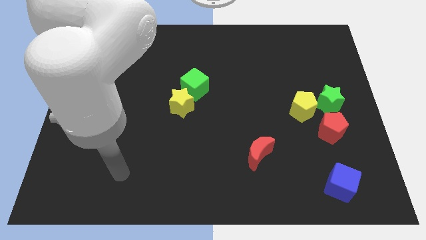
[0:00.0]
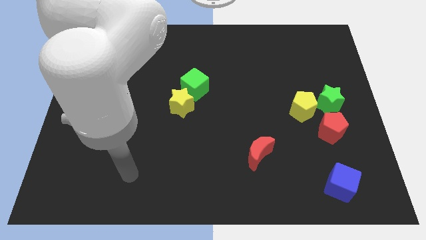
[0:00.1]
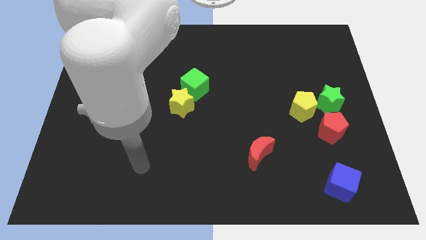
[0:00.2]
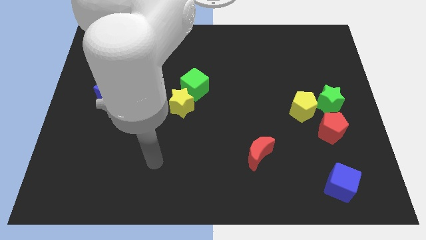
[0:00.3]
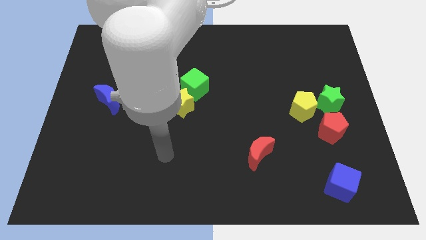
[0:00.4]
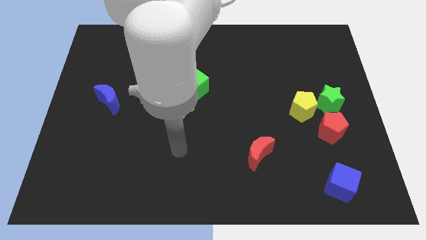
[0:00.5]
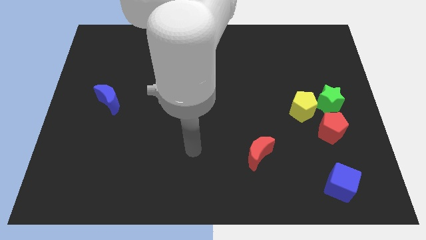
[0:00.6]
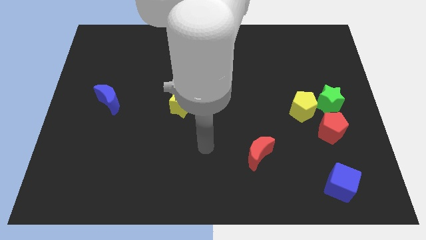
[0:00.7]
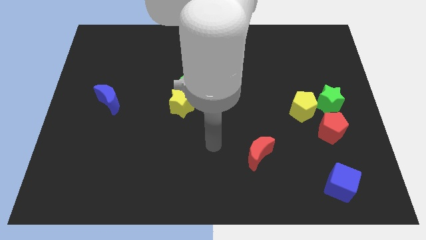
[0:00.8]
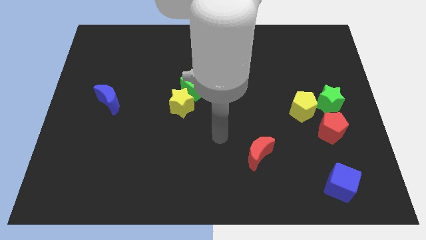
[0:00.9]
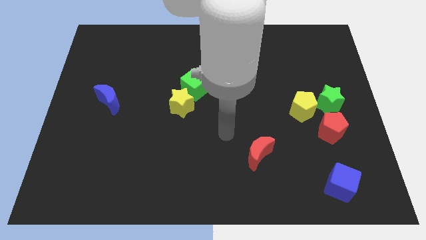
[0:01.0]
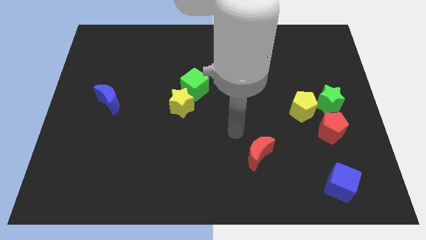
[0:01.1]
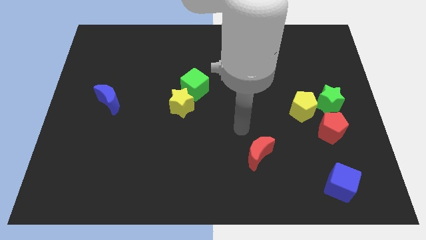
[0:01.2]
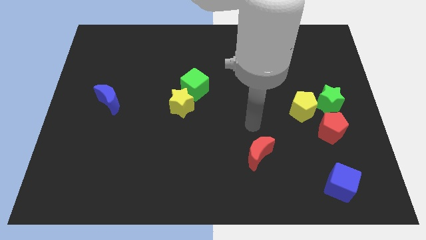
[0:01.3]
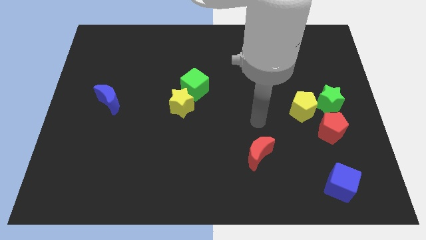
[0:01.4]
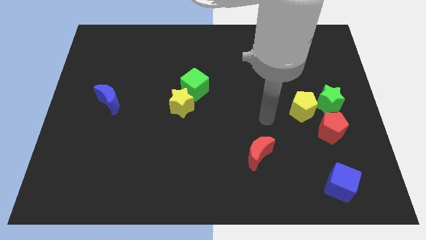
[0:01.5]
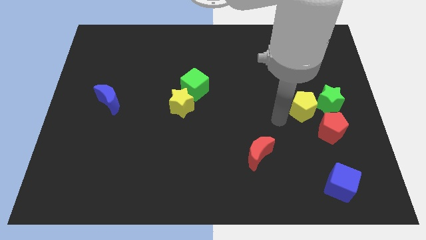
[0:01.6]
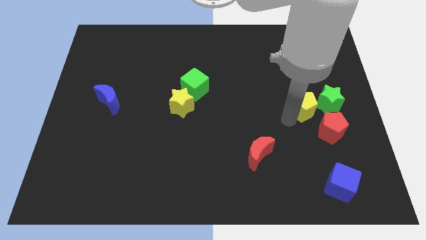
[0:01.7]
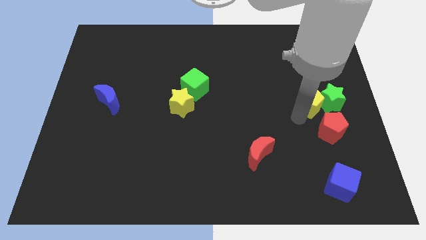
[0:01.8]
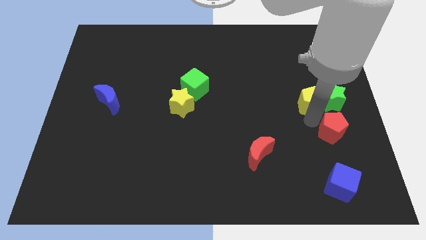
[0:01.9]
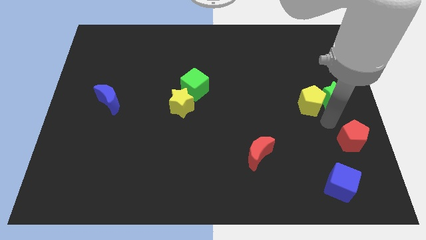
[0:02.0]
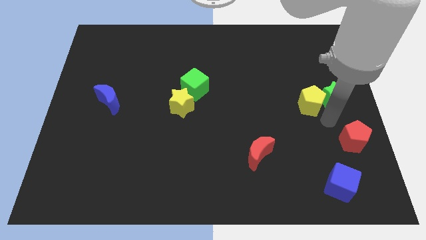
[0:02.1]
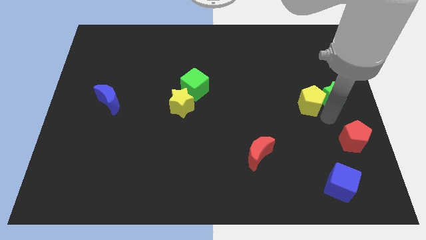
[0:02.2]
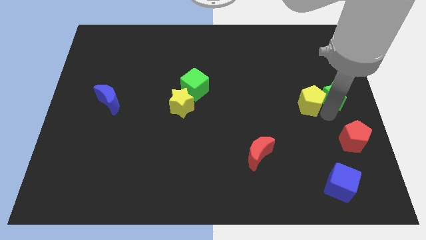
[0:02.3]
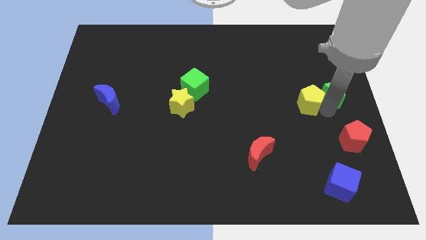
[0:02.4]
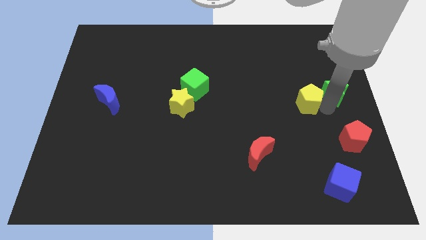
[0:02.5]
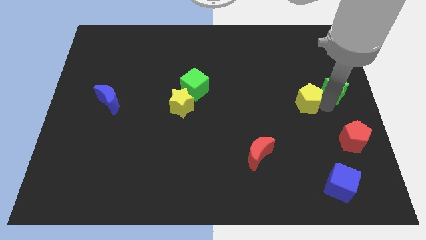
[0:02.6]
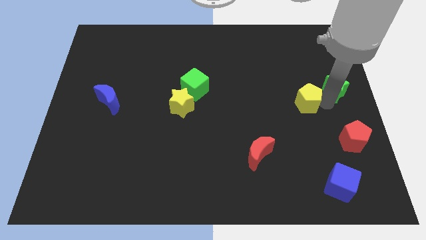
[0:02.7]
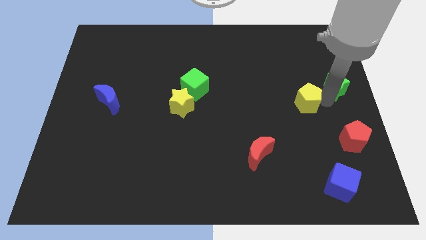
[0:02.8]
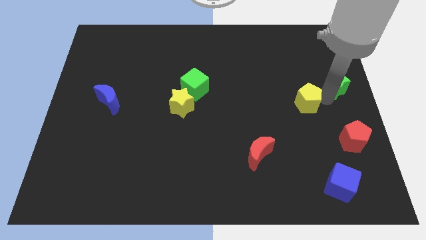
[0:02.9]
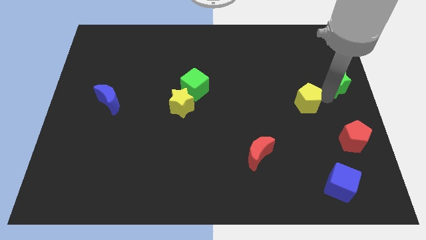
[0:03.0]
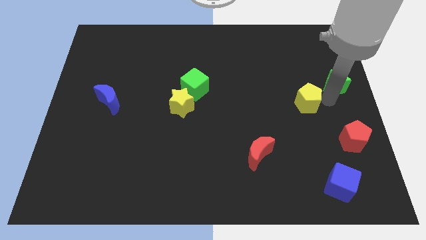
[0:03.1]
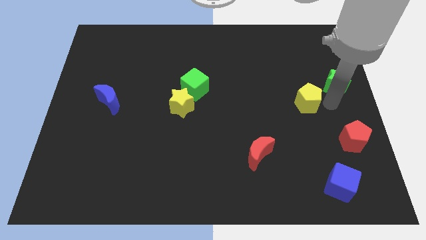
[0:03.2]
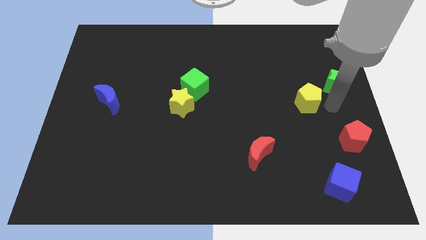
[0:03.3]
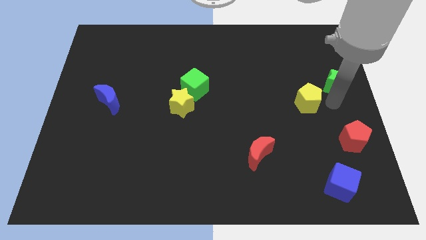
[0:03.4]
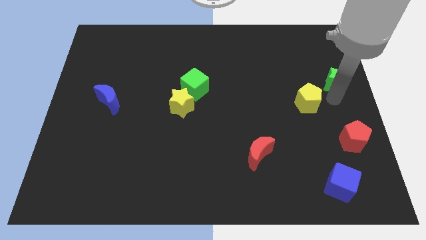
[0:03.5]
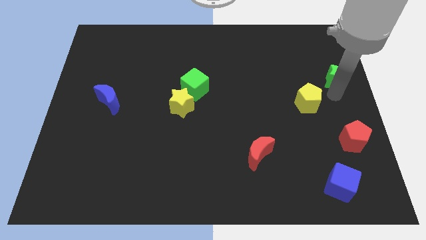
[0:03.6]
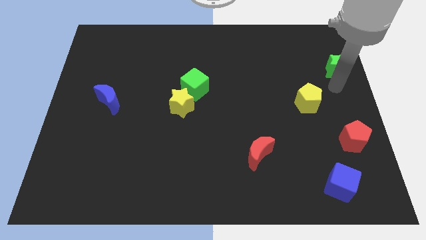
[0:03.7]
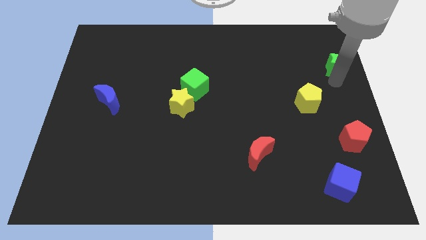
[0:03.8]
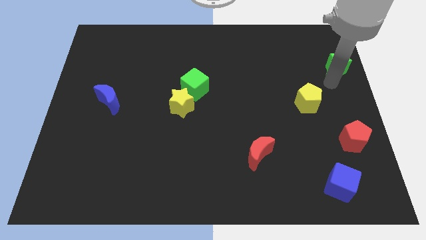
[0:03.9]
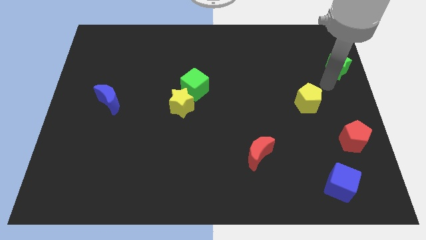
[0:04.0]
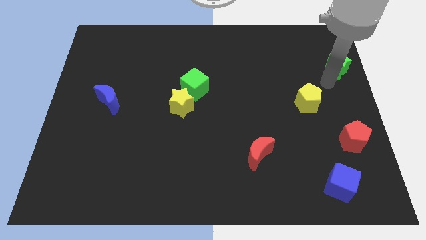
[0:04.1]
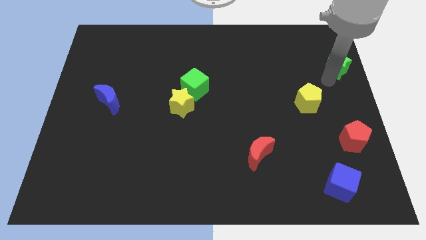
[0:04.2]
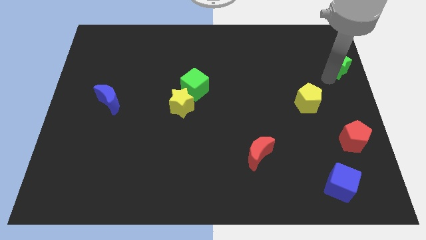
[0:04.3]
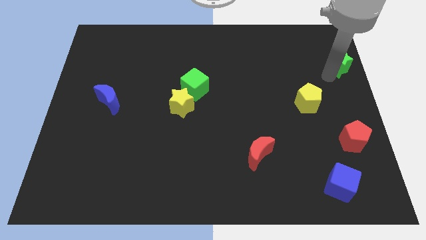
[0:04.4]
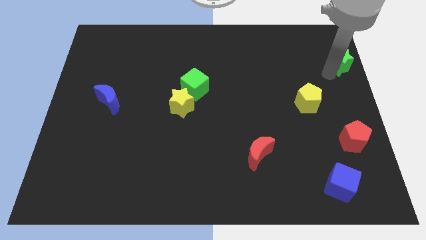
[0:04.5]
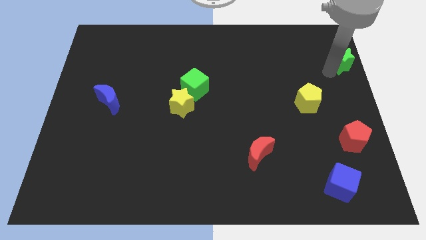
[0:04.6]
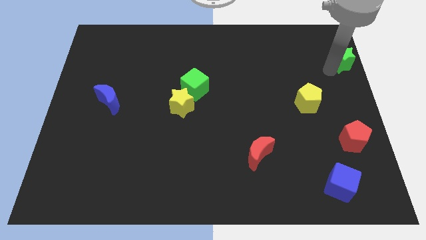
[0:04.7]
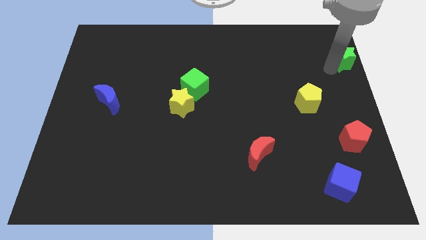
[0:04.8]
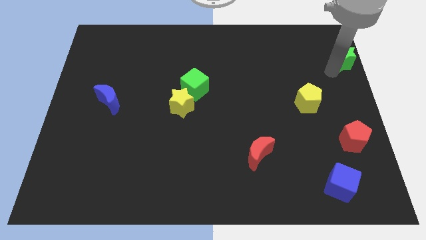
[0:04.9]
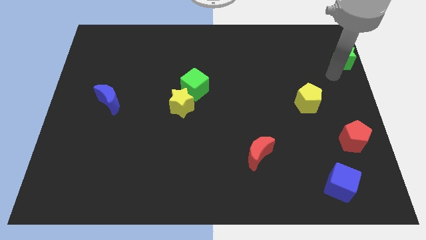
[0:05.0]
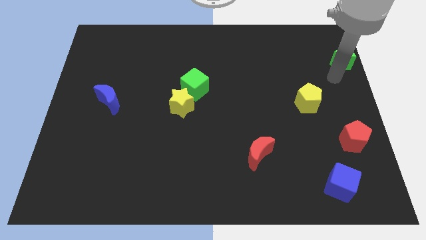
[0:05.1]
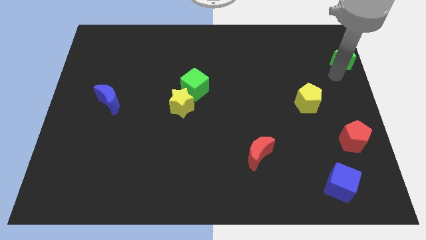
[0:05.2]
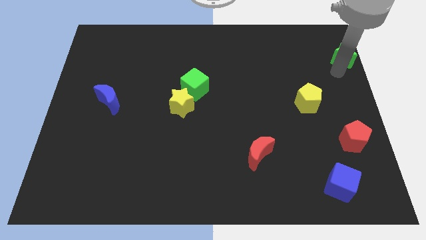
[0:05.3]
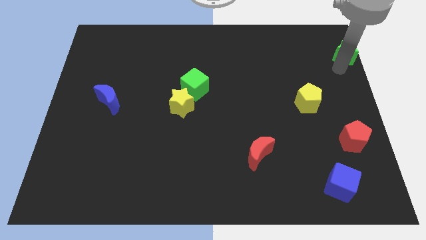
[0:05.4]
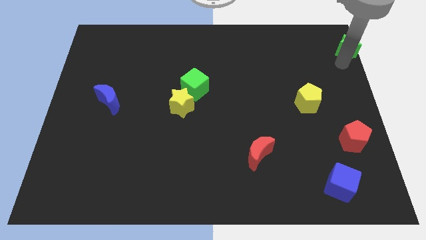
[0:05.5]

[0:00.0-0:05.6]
slide the green star to the top right of the board

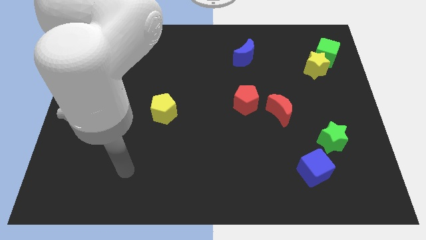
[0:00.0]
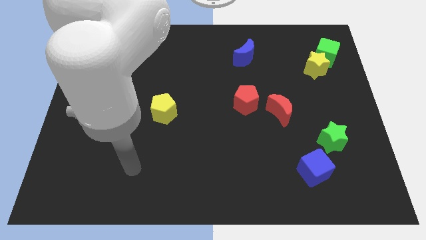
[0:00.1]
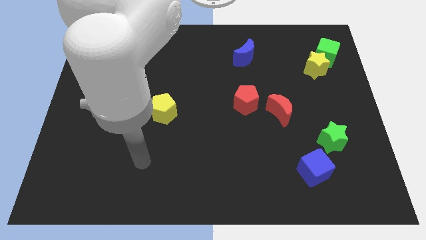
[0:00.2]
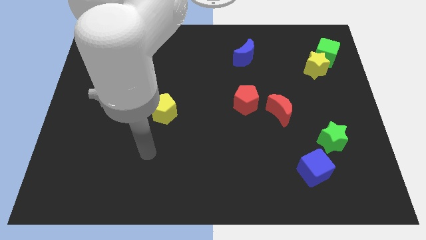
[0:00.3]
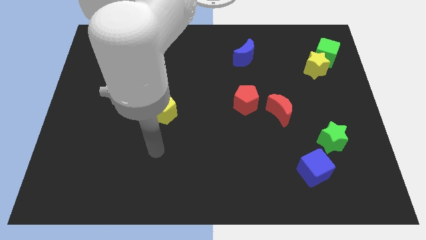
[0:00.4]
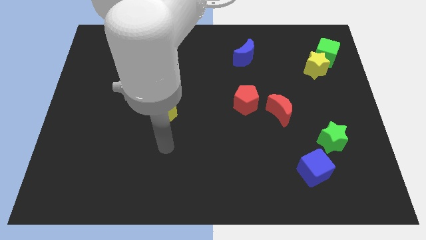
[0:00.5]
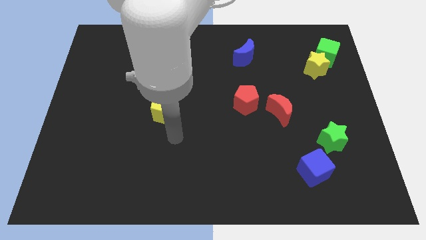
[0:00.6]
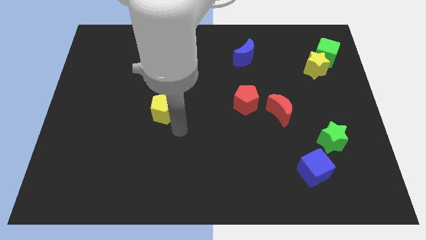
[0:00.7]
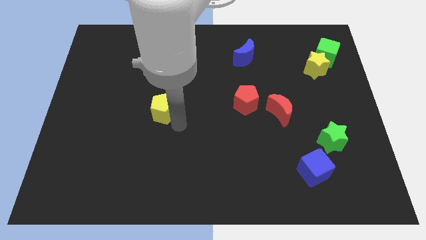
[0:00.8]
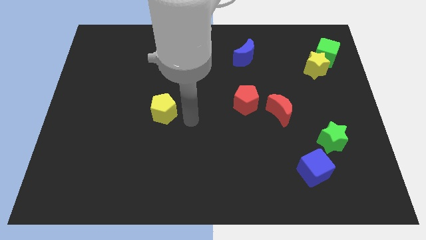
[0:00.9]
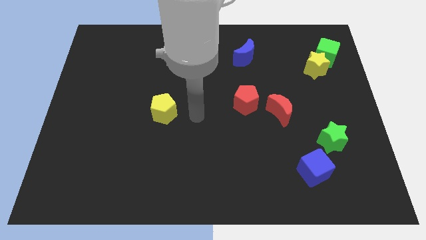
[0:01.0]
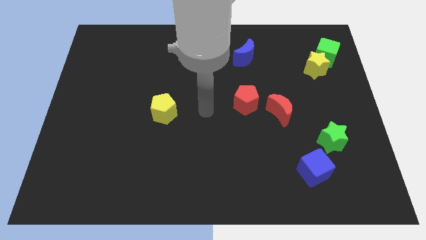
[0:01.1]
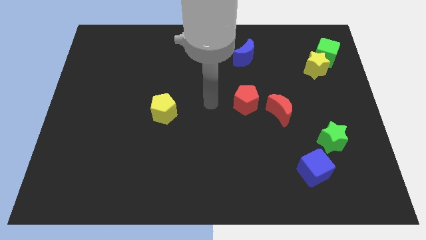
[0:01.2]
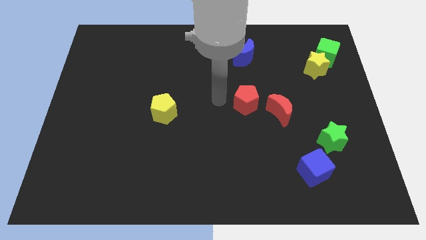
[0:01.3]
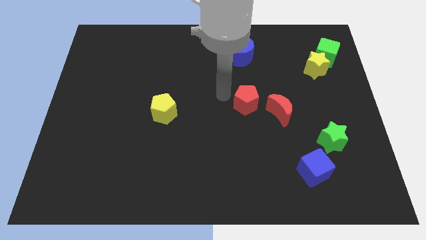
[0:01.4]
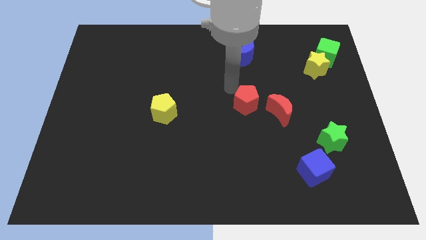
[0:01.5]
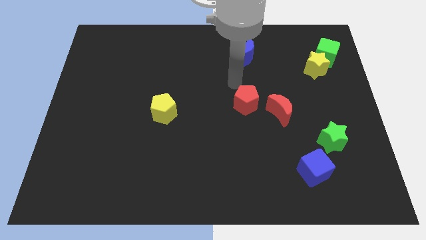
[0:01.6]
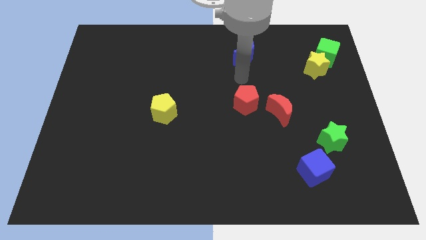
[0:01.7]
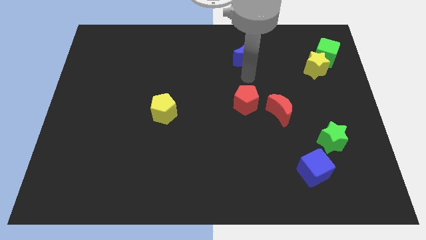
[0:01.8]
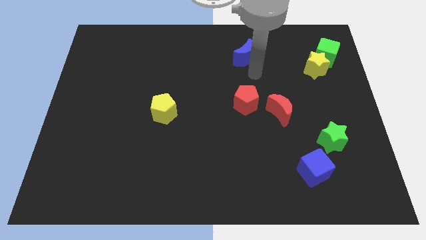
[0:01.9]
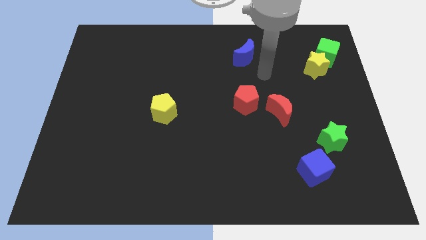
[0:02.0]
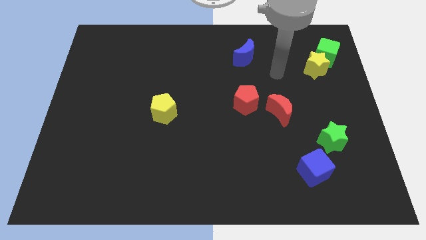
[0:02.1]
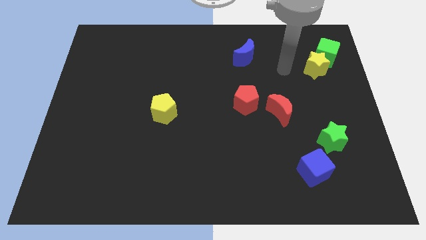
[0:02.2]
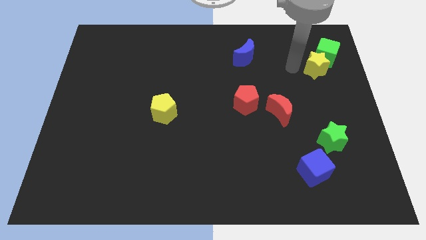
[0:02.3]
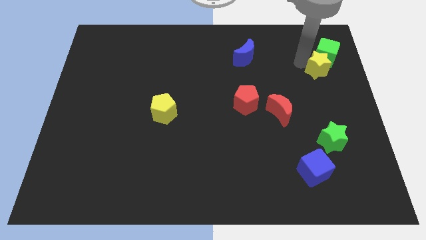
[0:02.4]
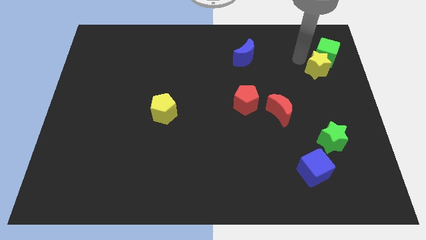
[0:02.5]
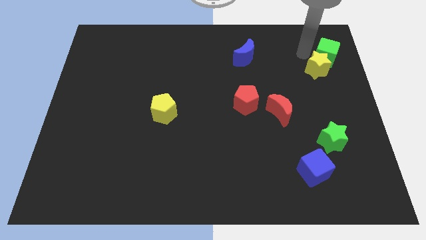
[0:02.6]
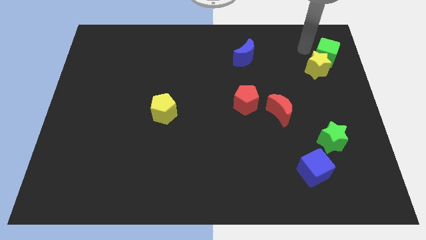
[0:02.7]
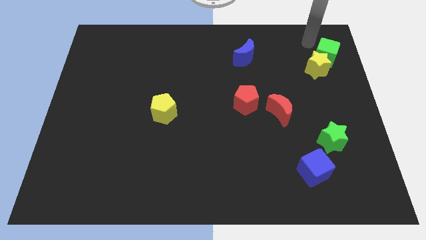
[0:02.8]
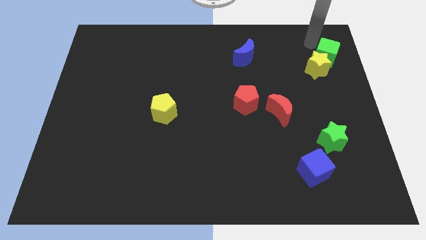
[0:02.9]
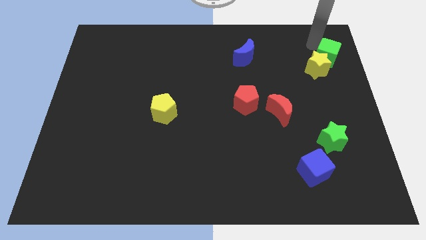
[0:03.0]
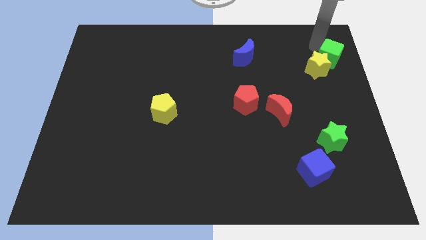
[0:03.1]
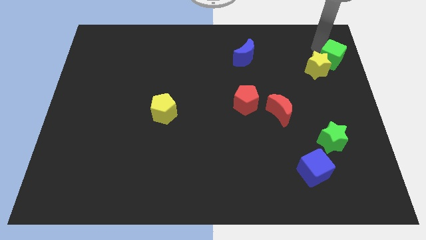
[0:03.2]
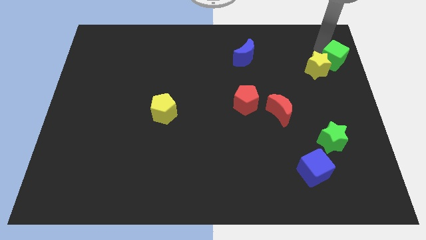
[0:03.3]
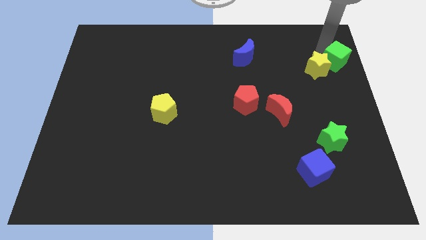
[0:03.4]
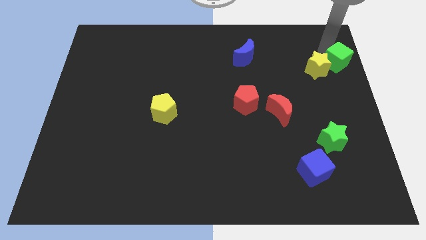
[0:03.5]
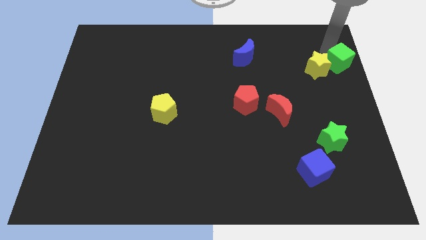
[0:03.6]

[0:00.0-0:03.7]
slide the green cube to the right side
